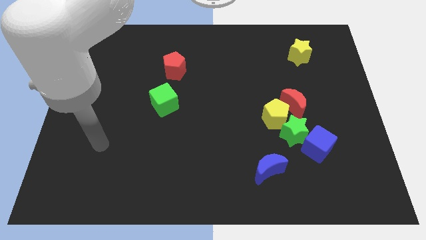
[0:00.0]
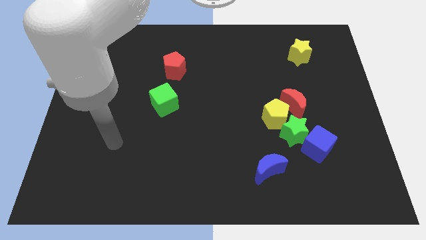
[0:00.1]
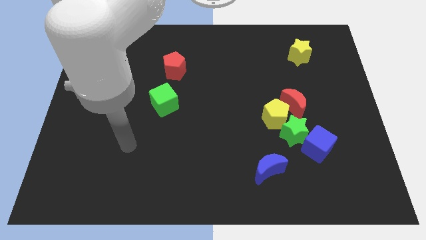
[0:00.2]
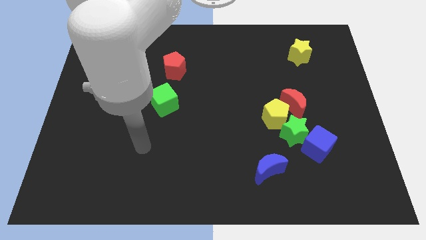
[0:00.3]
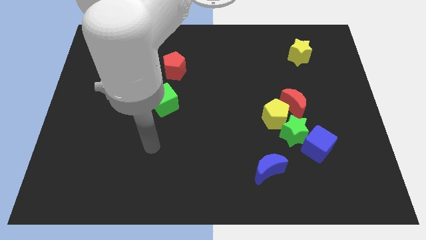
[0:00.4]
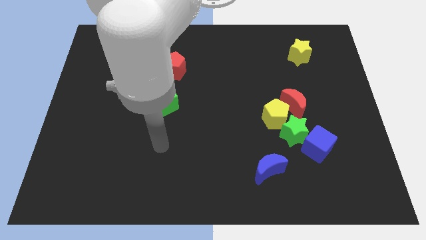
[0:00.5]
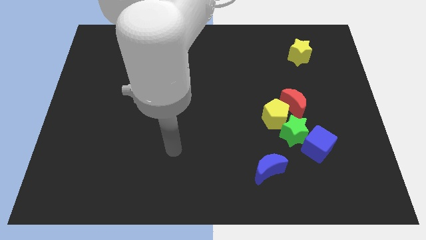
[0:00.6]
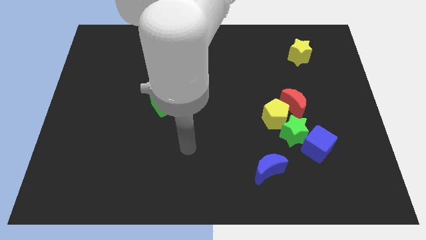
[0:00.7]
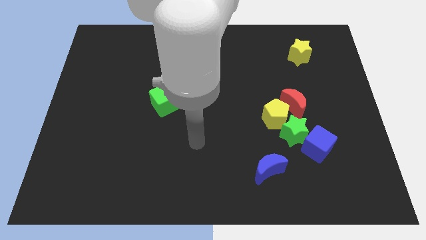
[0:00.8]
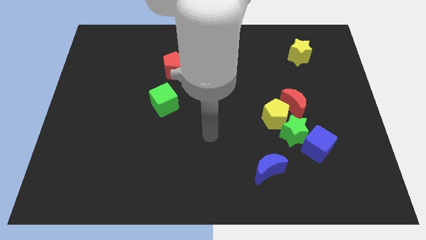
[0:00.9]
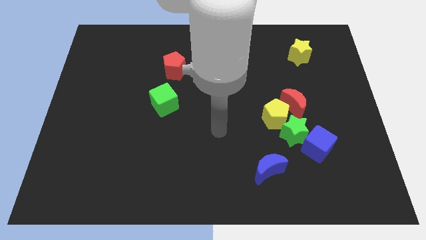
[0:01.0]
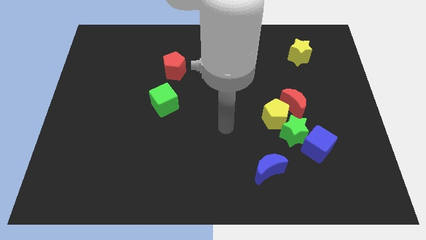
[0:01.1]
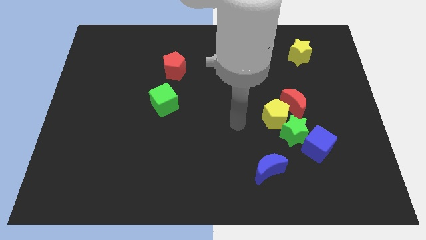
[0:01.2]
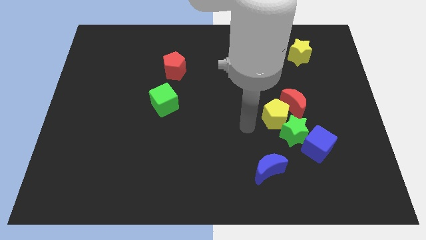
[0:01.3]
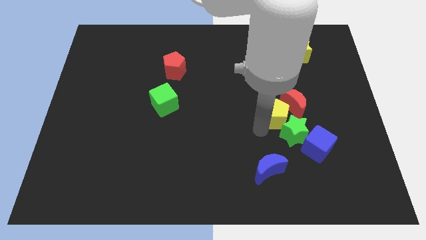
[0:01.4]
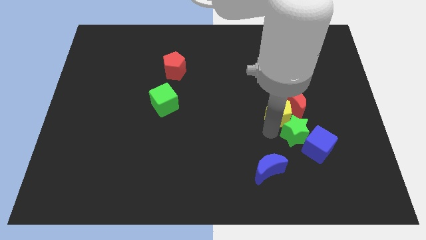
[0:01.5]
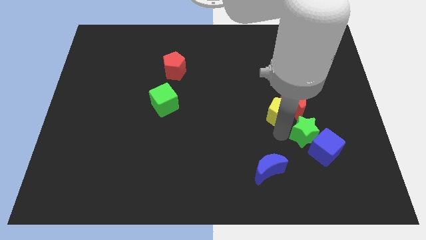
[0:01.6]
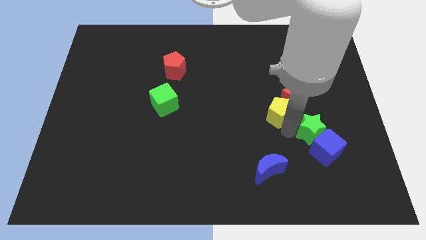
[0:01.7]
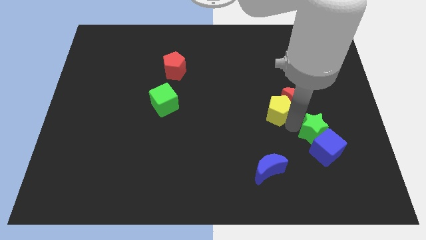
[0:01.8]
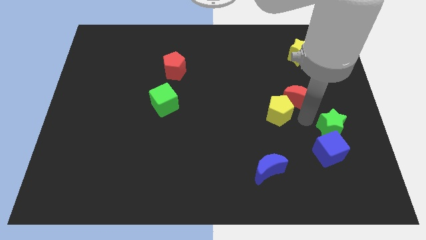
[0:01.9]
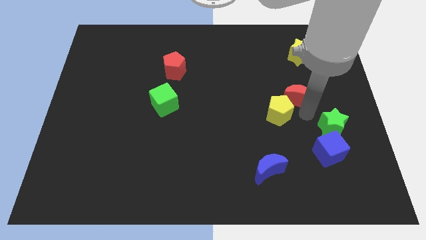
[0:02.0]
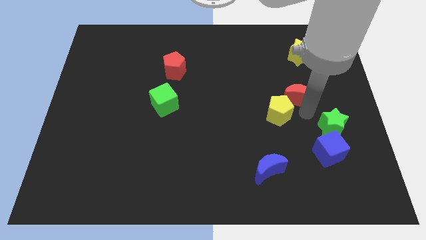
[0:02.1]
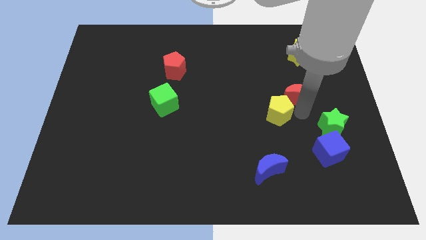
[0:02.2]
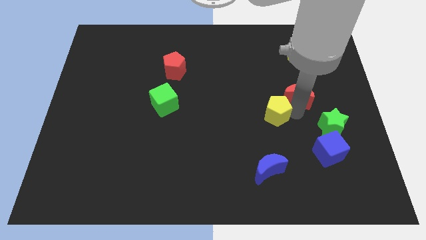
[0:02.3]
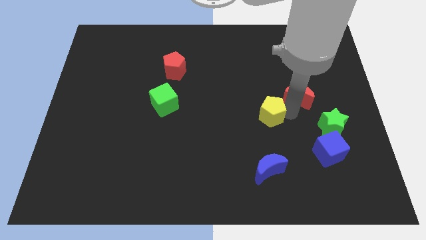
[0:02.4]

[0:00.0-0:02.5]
move the yellow pentagon away from the green star and red moon

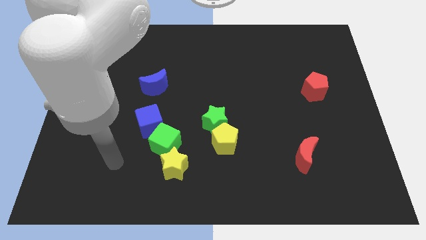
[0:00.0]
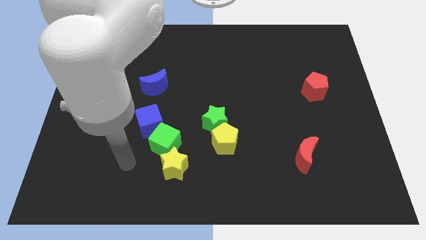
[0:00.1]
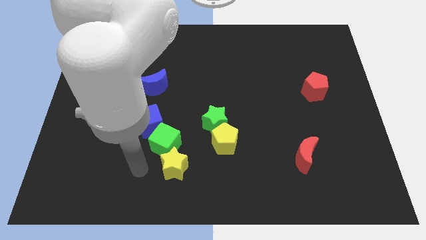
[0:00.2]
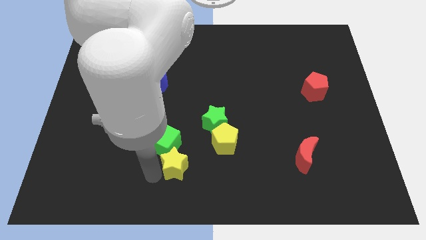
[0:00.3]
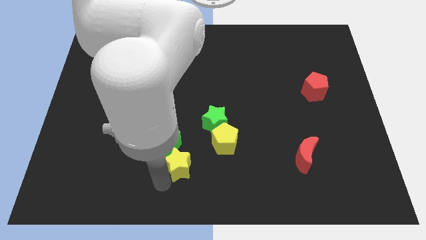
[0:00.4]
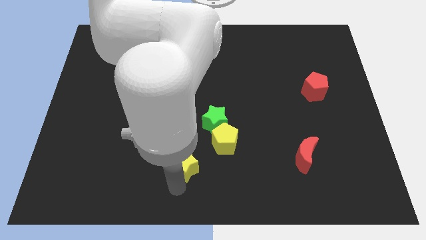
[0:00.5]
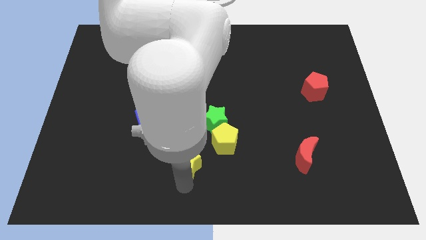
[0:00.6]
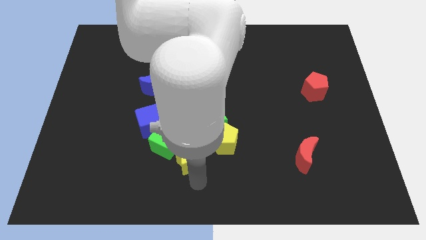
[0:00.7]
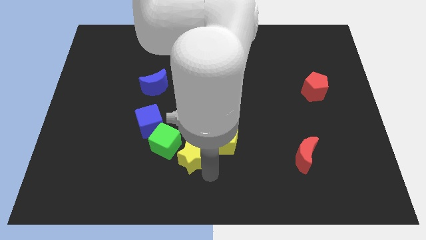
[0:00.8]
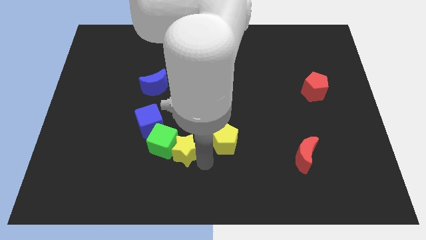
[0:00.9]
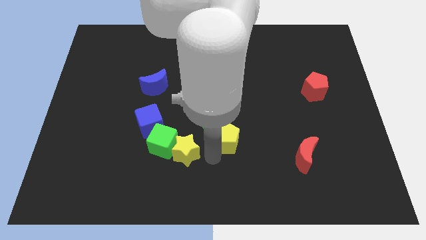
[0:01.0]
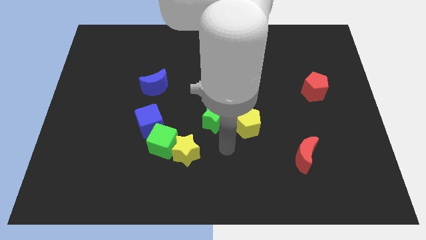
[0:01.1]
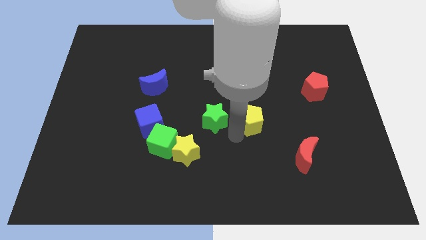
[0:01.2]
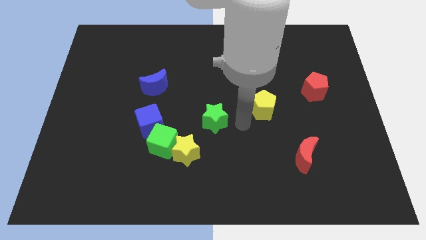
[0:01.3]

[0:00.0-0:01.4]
separate the green star from the yellow pentagon

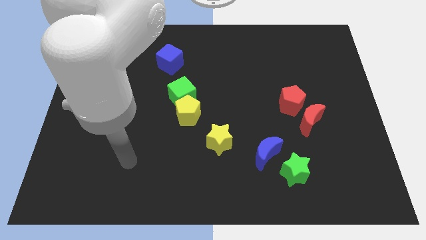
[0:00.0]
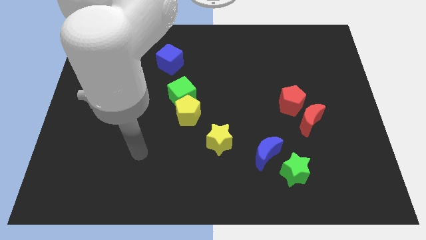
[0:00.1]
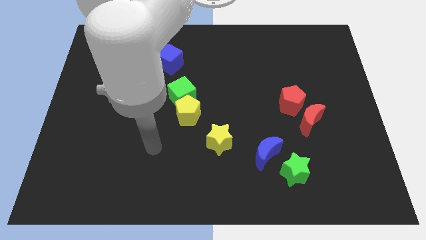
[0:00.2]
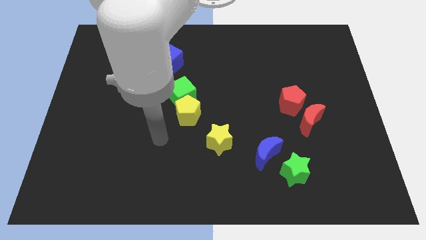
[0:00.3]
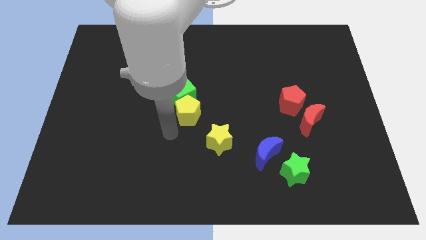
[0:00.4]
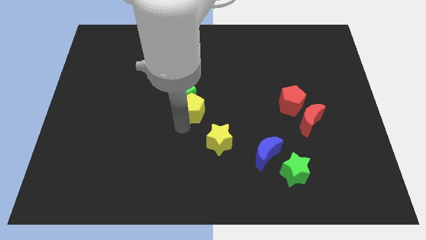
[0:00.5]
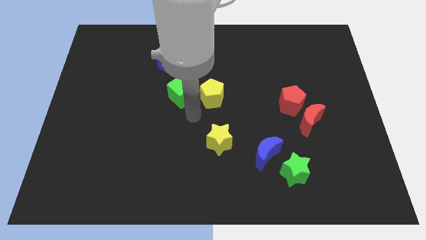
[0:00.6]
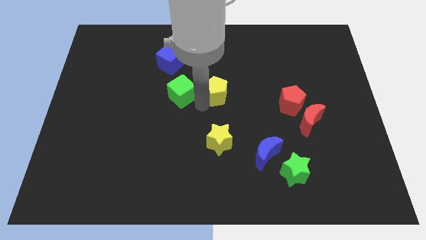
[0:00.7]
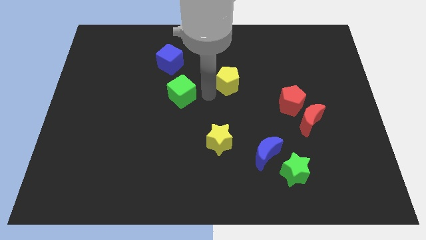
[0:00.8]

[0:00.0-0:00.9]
separate the green cube from the yellow pentagon

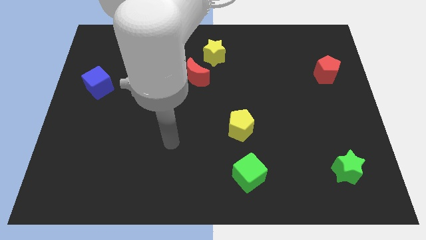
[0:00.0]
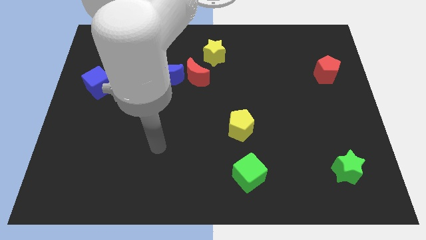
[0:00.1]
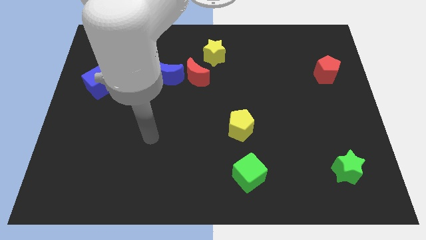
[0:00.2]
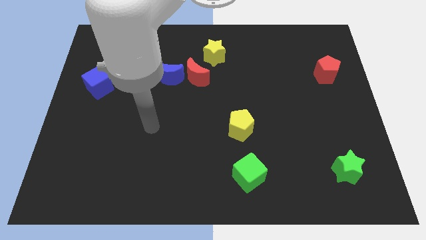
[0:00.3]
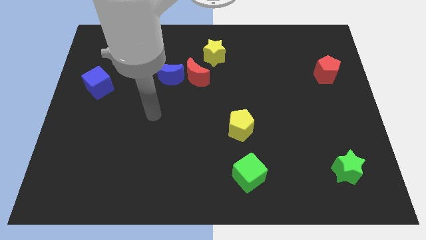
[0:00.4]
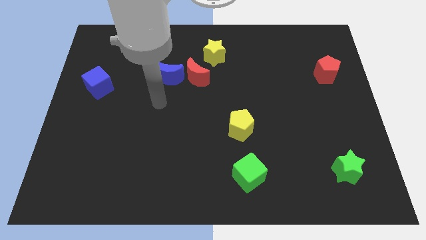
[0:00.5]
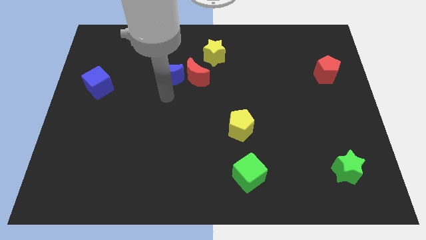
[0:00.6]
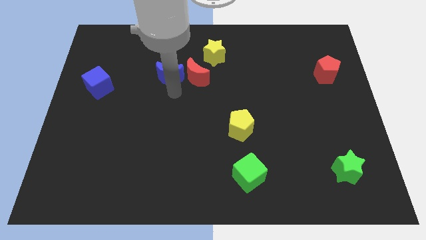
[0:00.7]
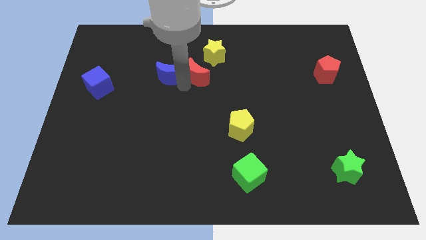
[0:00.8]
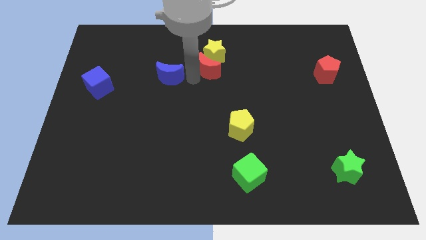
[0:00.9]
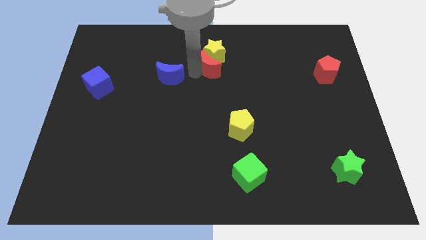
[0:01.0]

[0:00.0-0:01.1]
move the blue moon away from the red moon

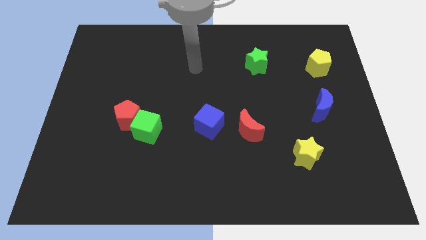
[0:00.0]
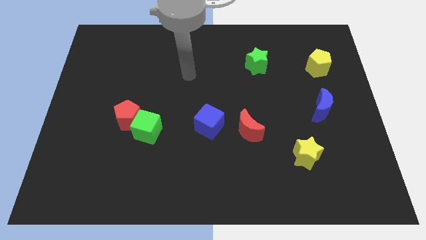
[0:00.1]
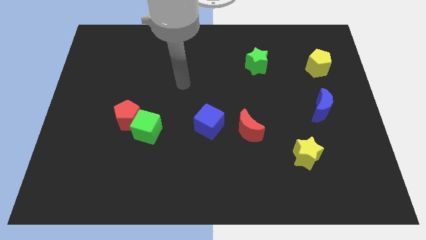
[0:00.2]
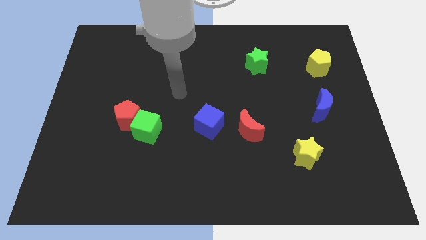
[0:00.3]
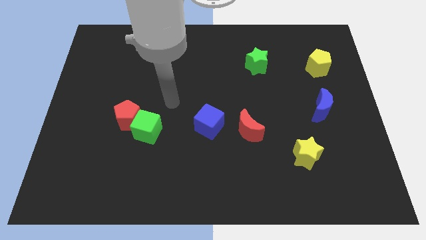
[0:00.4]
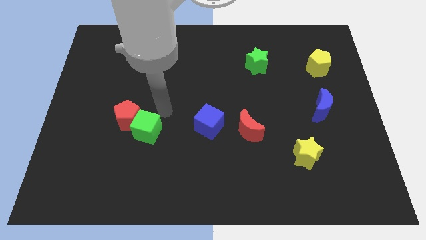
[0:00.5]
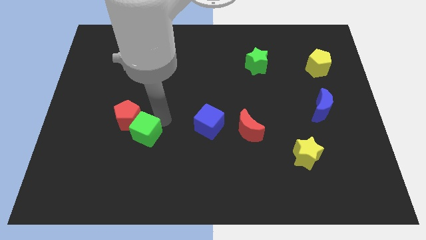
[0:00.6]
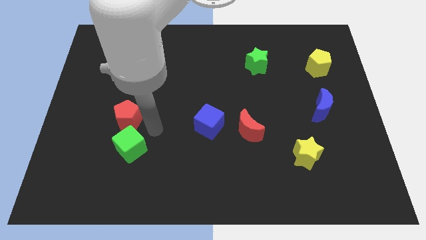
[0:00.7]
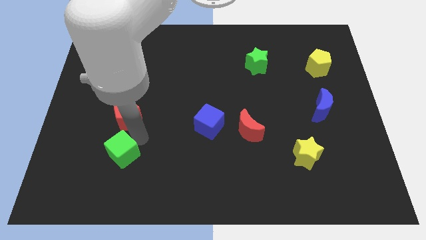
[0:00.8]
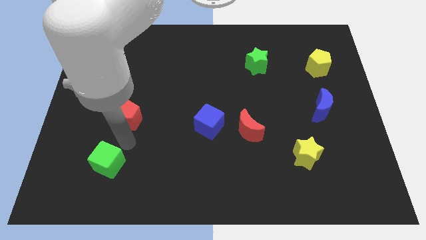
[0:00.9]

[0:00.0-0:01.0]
move the red pentagon away from the green cube

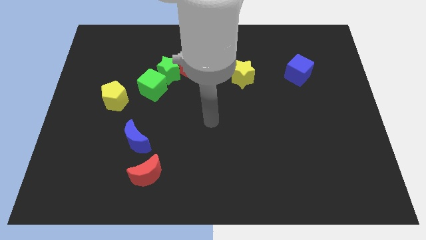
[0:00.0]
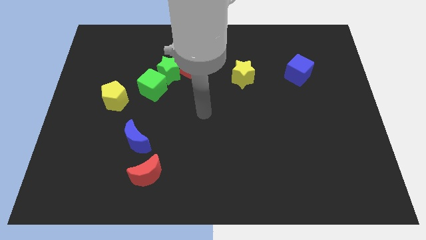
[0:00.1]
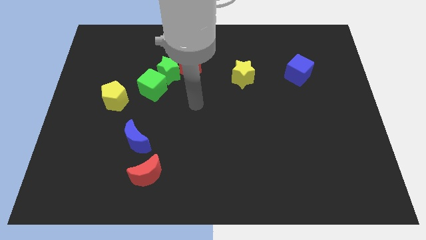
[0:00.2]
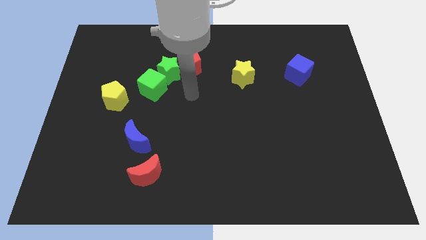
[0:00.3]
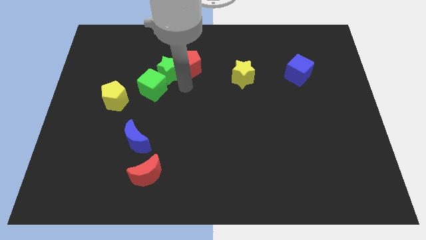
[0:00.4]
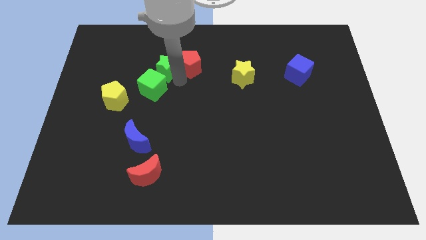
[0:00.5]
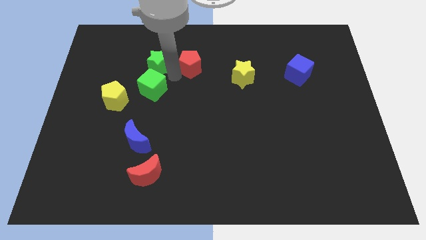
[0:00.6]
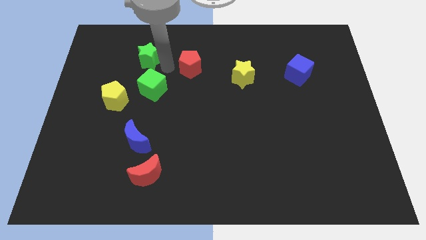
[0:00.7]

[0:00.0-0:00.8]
pull the red pentagon apart from the green star

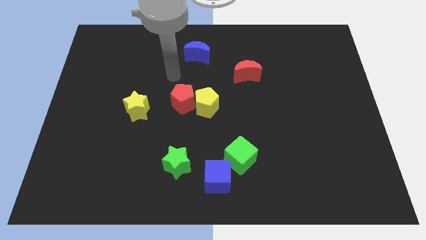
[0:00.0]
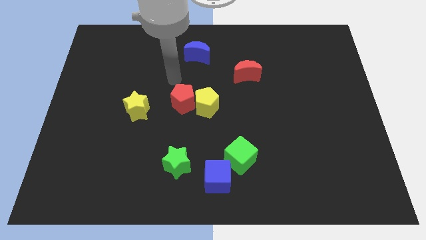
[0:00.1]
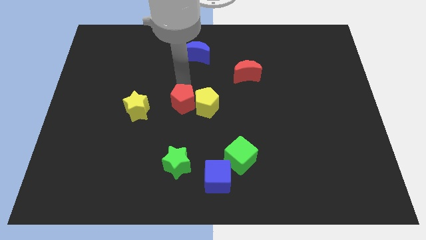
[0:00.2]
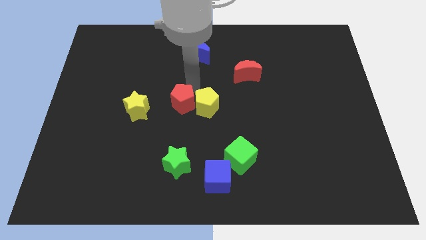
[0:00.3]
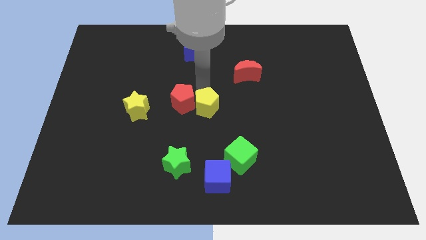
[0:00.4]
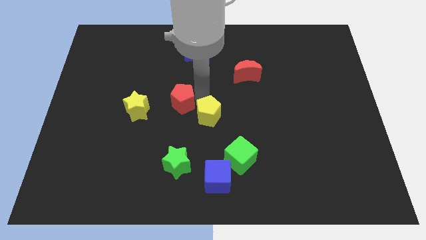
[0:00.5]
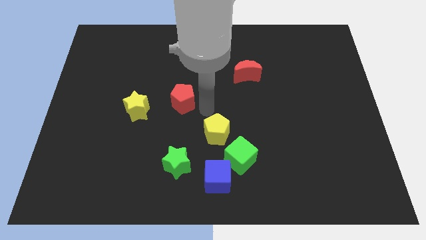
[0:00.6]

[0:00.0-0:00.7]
move the red pentagon away from the yellow pentagon

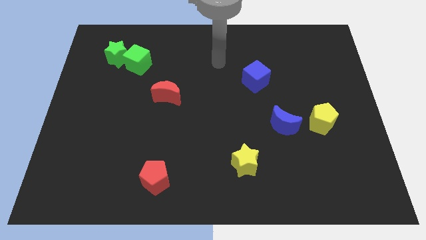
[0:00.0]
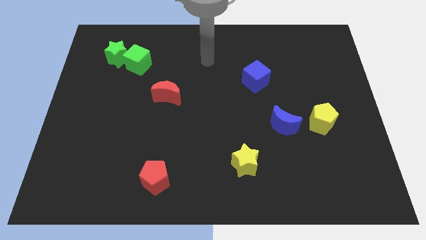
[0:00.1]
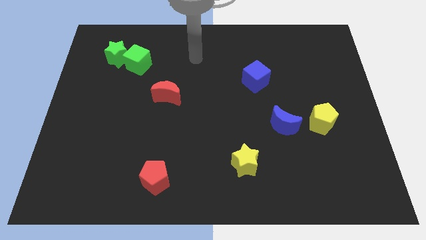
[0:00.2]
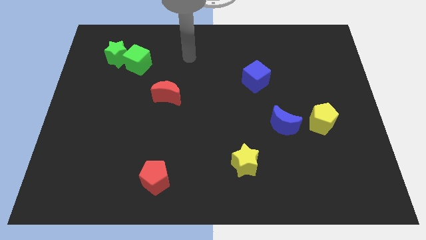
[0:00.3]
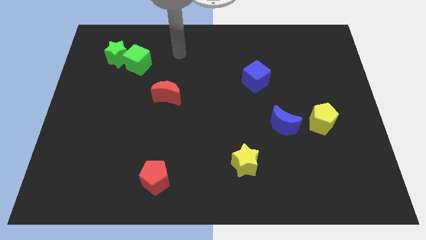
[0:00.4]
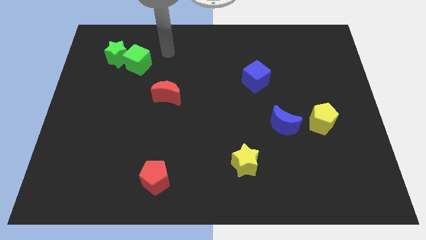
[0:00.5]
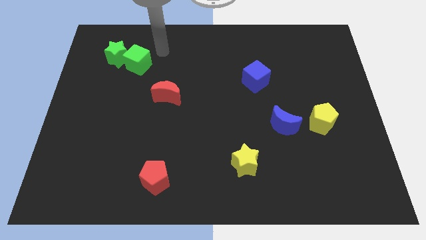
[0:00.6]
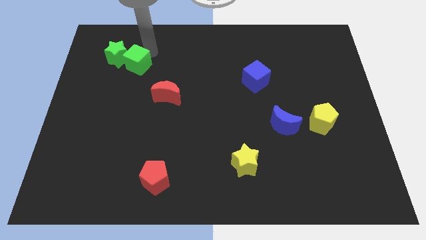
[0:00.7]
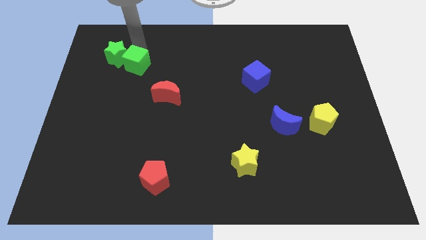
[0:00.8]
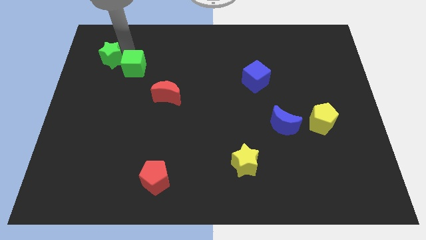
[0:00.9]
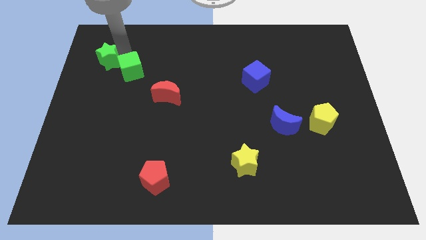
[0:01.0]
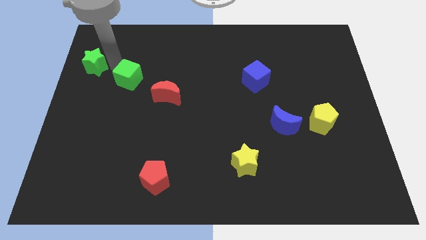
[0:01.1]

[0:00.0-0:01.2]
separate the green cube from the green star
